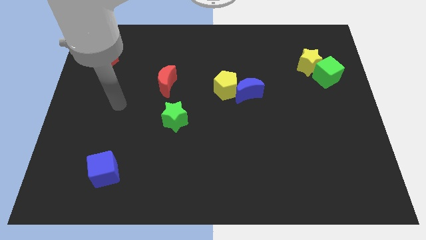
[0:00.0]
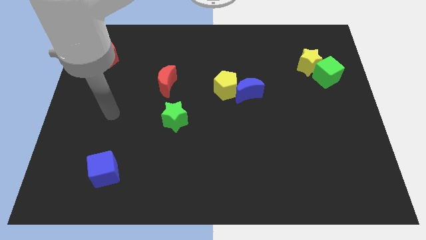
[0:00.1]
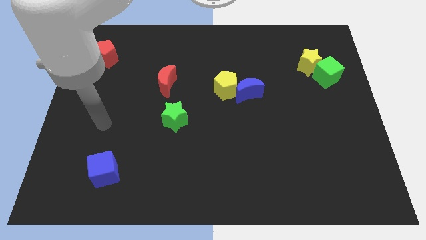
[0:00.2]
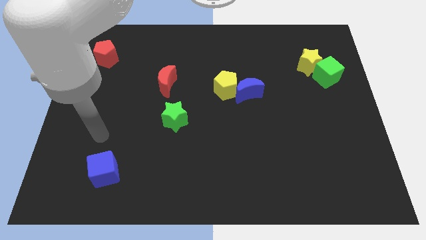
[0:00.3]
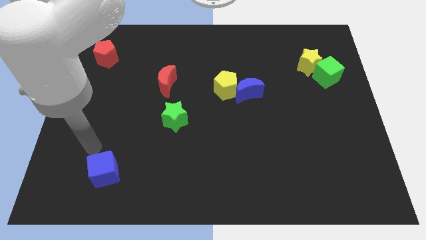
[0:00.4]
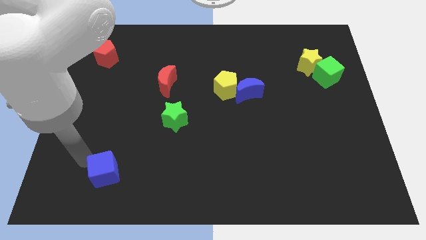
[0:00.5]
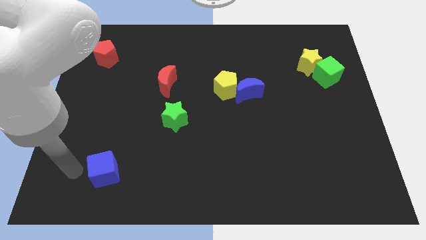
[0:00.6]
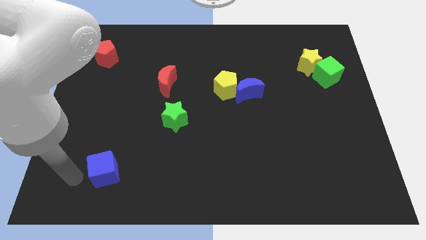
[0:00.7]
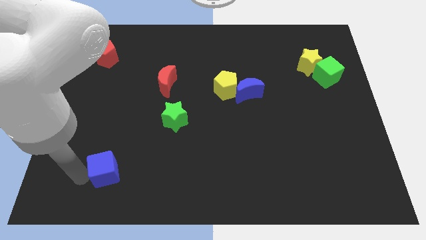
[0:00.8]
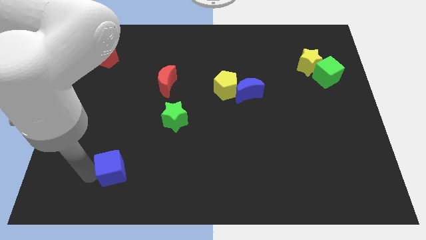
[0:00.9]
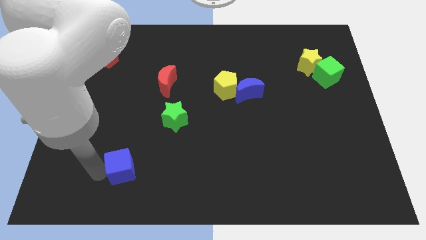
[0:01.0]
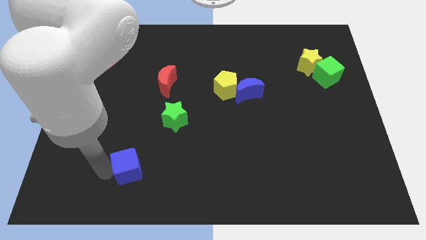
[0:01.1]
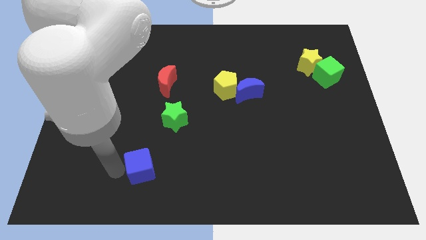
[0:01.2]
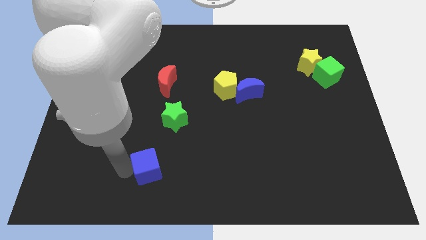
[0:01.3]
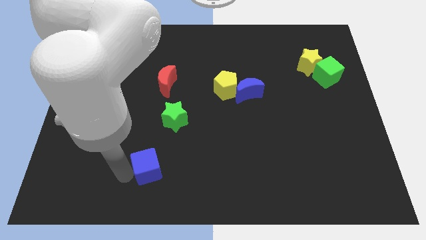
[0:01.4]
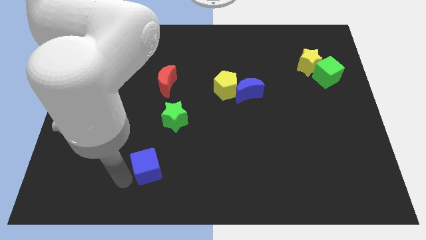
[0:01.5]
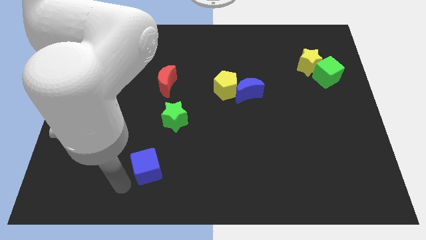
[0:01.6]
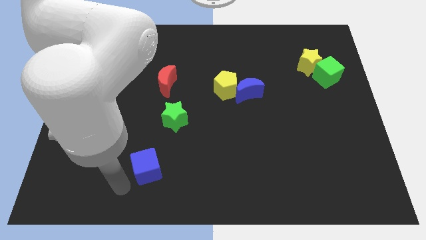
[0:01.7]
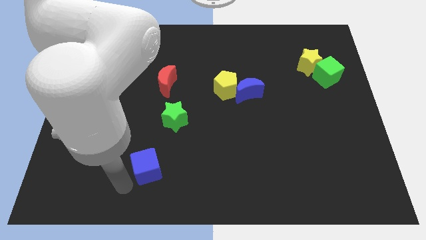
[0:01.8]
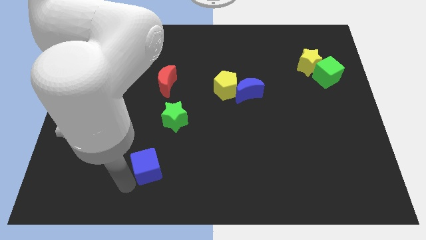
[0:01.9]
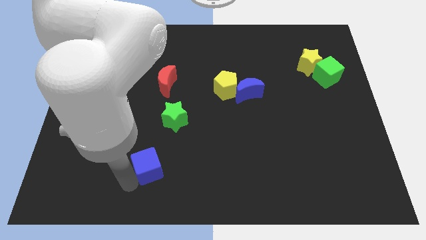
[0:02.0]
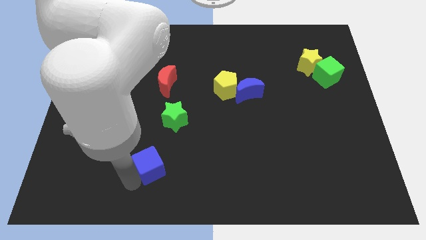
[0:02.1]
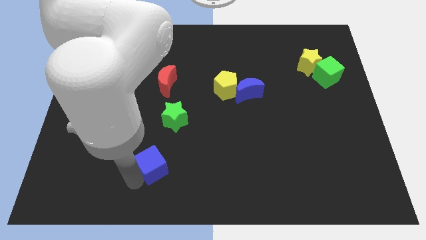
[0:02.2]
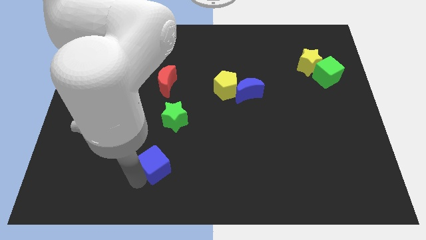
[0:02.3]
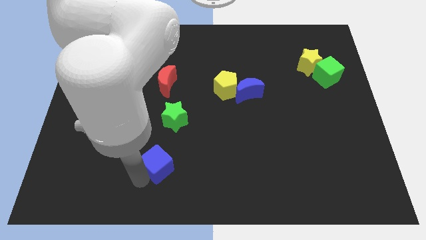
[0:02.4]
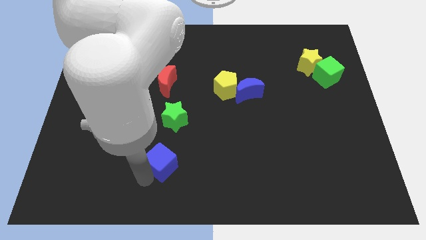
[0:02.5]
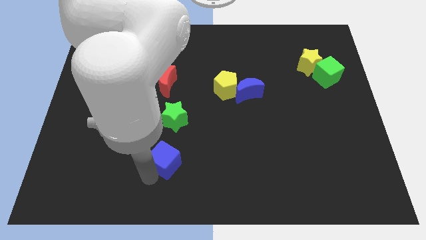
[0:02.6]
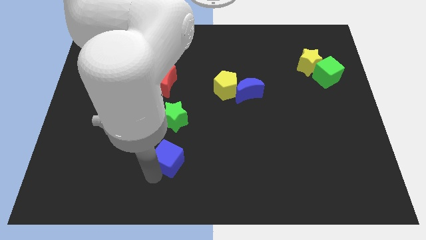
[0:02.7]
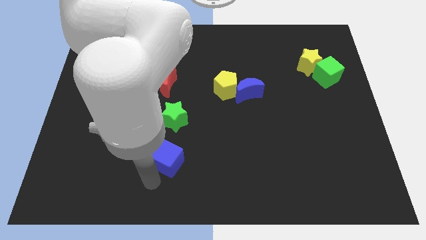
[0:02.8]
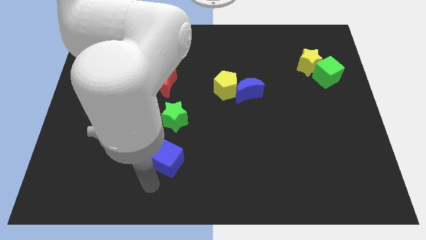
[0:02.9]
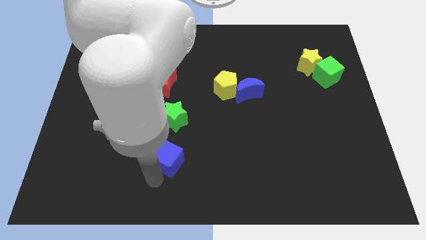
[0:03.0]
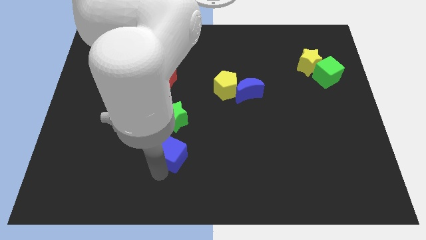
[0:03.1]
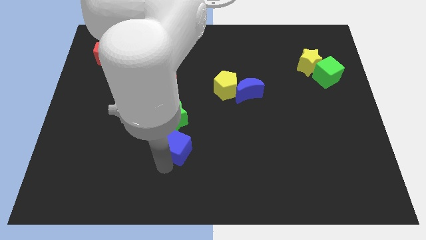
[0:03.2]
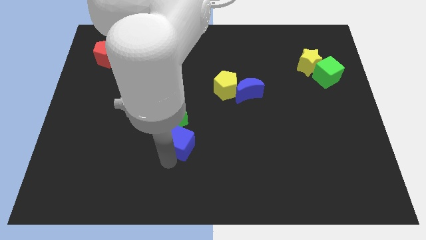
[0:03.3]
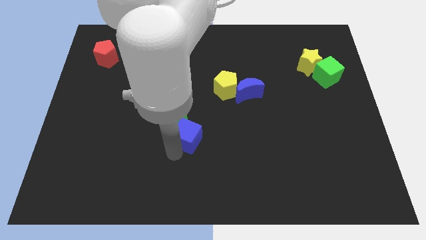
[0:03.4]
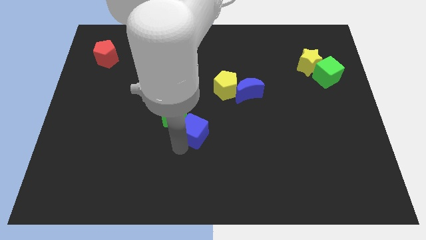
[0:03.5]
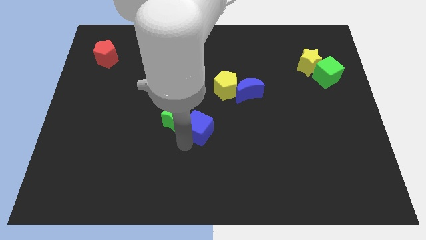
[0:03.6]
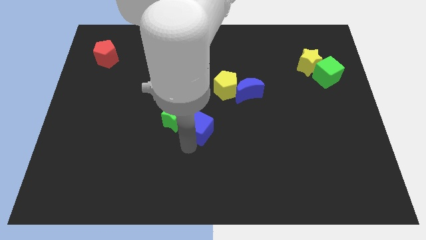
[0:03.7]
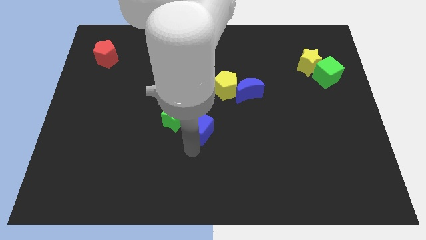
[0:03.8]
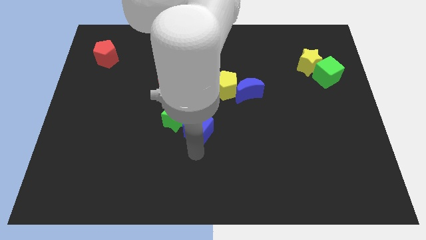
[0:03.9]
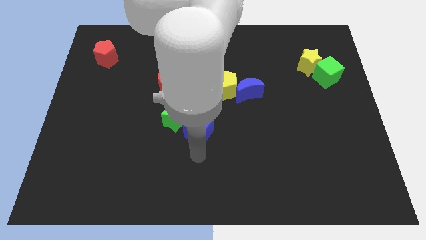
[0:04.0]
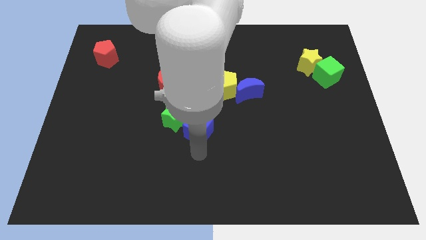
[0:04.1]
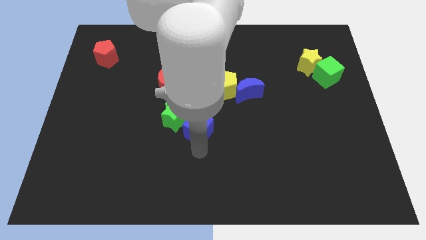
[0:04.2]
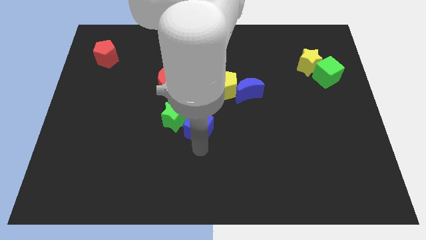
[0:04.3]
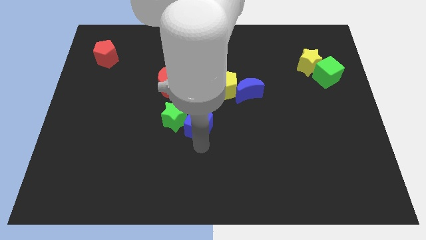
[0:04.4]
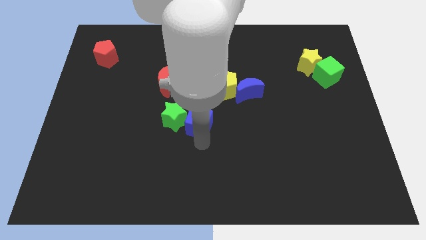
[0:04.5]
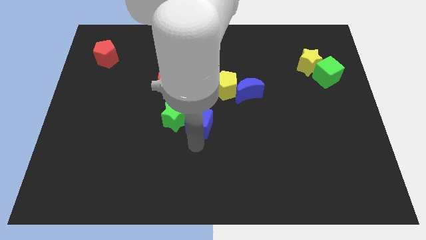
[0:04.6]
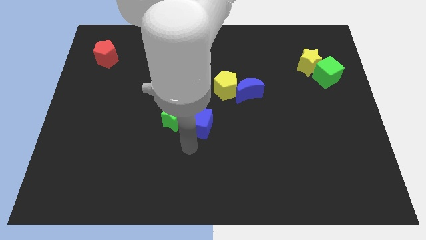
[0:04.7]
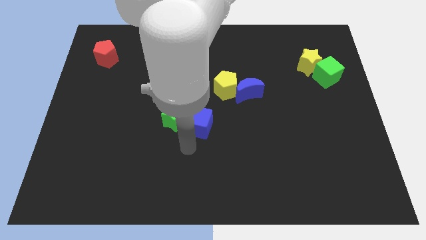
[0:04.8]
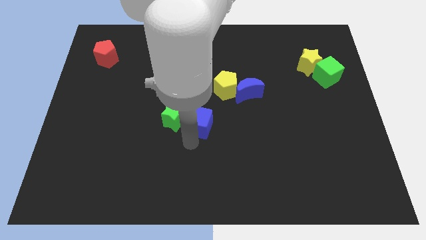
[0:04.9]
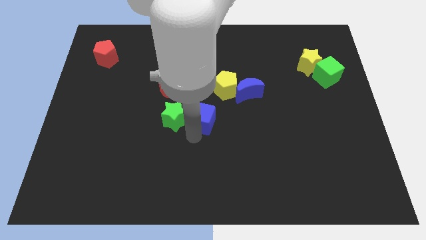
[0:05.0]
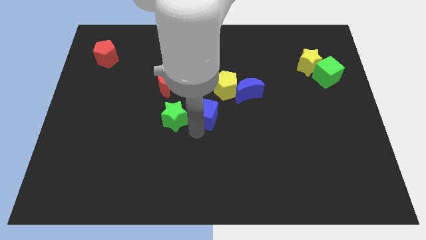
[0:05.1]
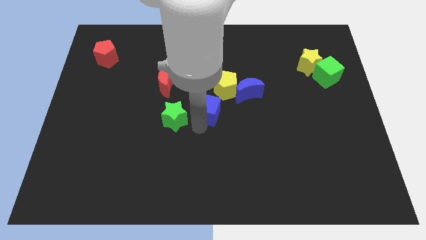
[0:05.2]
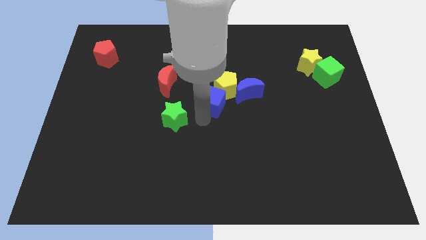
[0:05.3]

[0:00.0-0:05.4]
put the blue cube next to the yellow pentagon

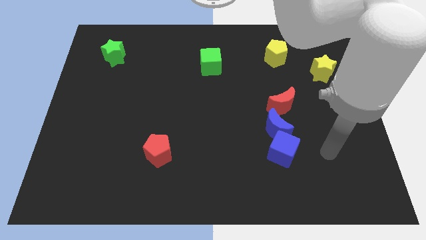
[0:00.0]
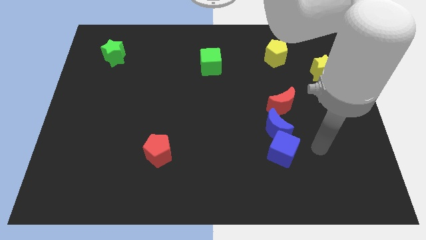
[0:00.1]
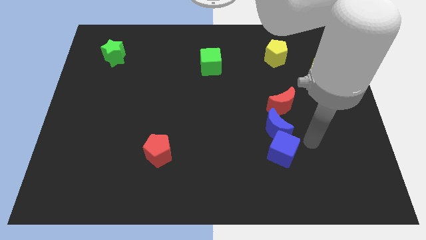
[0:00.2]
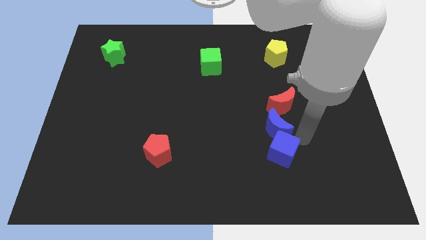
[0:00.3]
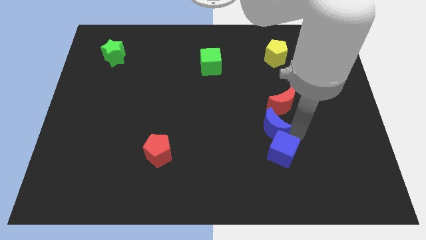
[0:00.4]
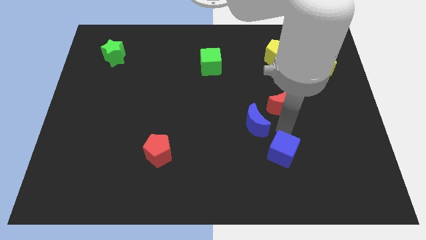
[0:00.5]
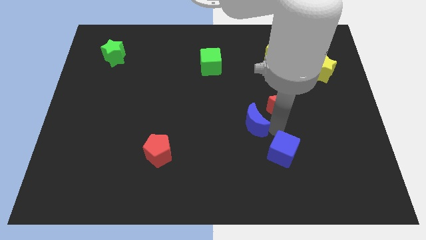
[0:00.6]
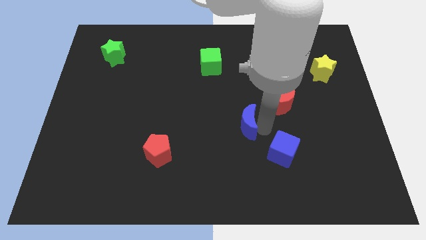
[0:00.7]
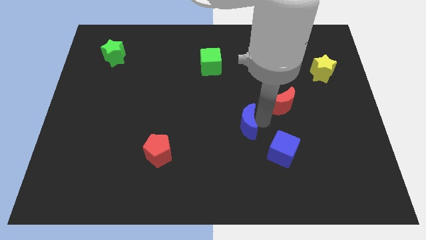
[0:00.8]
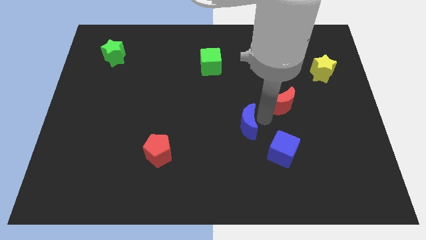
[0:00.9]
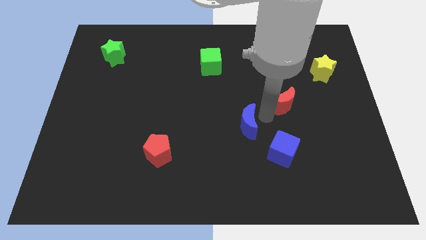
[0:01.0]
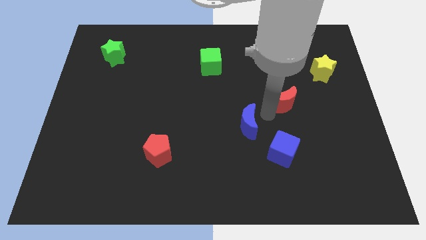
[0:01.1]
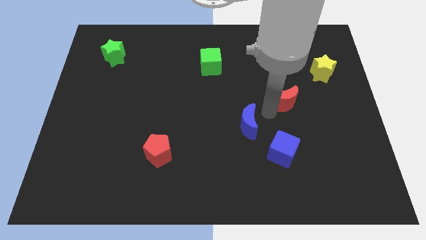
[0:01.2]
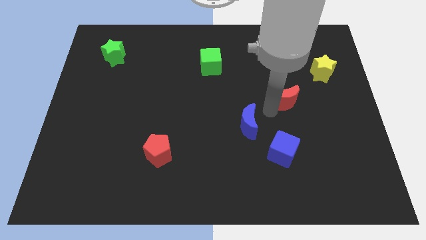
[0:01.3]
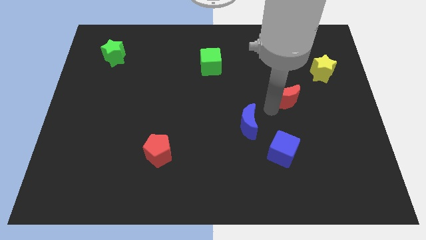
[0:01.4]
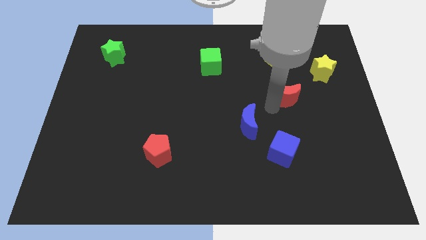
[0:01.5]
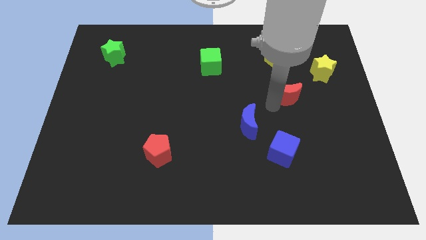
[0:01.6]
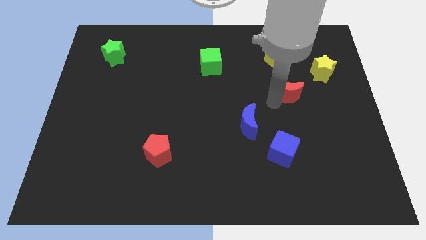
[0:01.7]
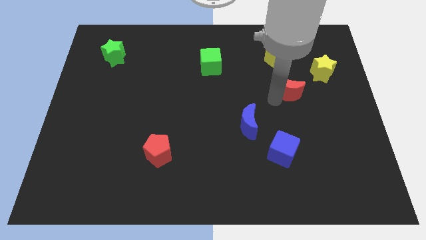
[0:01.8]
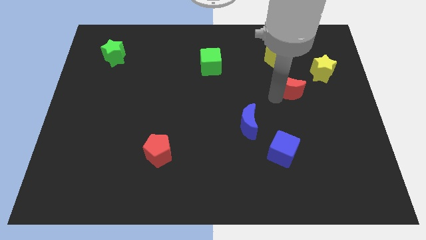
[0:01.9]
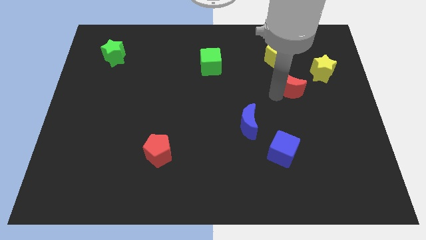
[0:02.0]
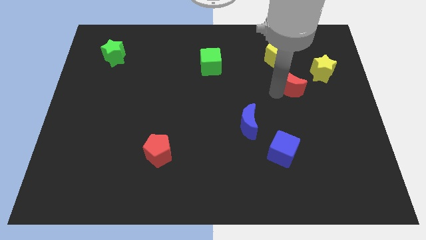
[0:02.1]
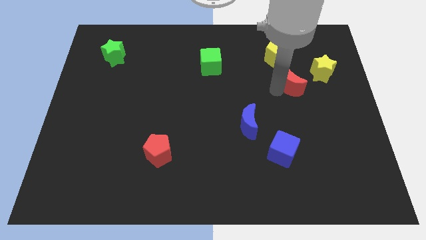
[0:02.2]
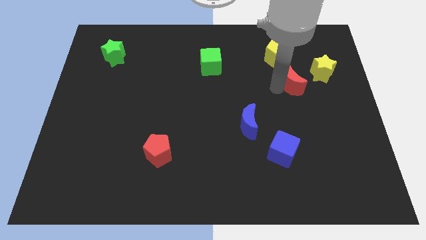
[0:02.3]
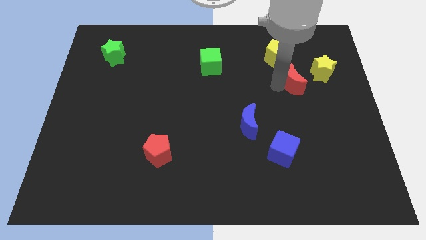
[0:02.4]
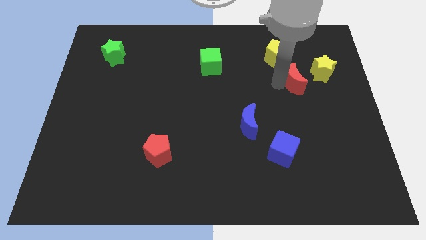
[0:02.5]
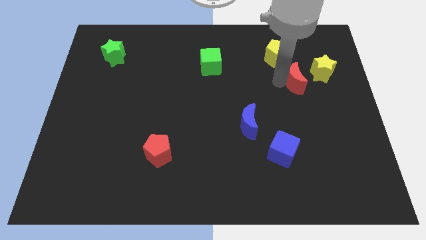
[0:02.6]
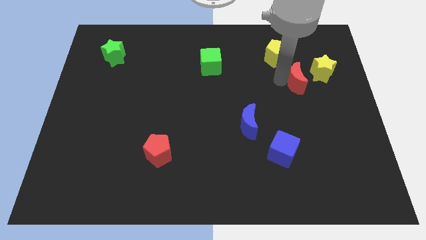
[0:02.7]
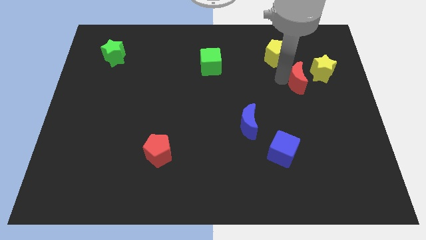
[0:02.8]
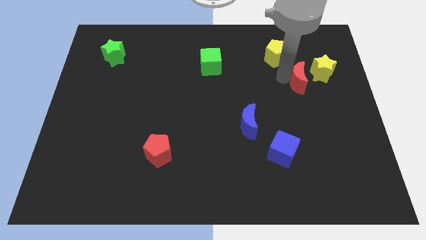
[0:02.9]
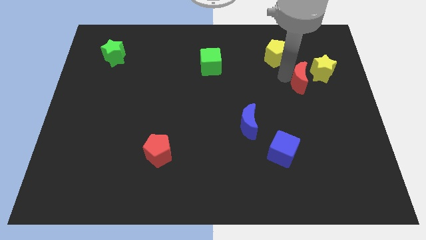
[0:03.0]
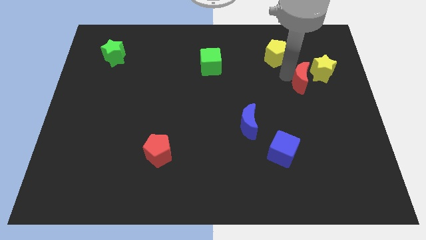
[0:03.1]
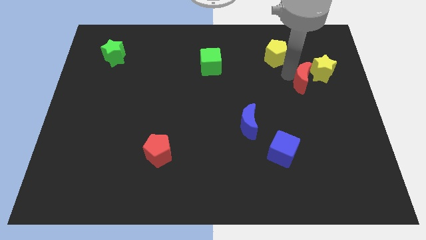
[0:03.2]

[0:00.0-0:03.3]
slide the red moon close to the yellow star
